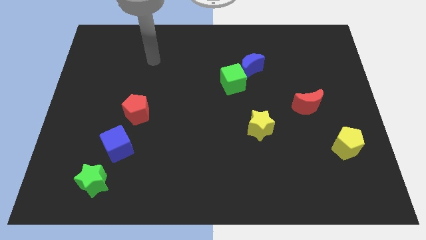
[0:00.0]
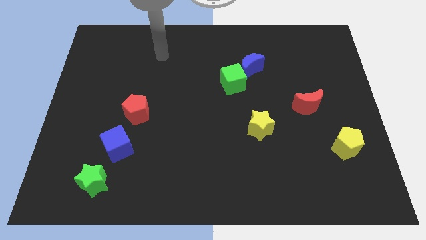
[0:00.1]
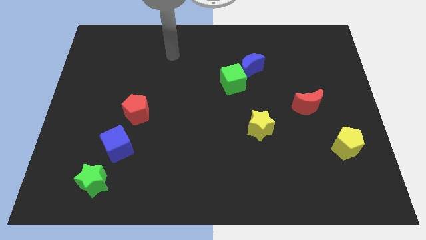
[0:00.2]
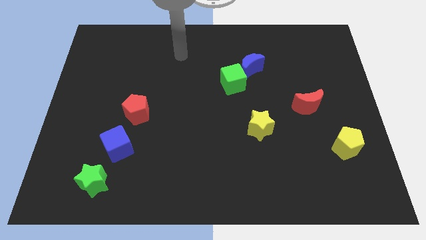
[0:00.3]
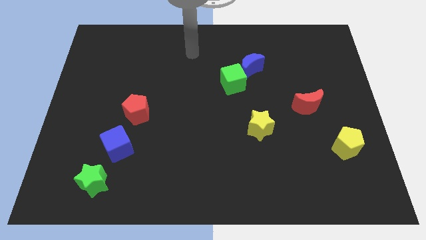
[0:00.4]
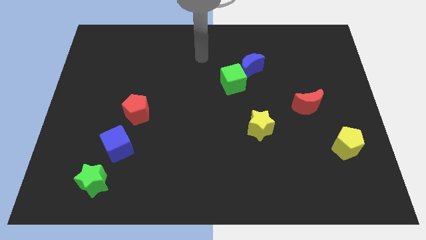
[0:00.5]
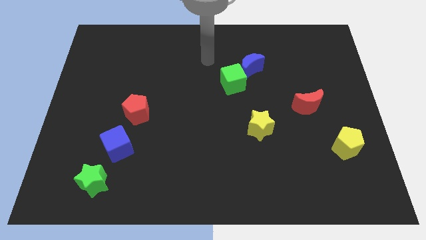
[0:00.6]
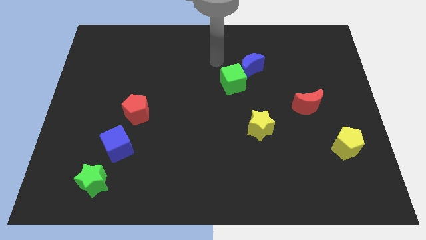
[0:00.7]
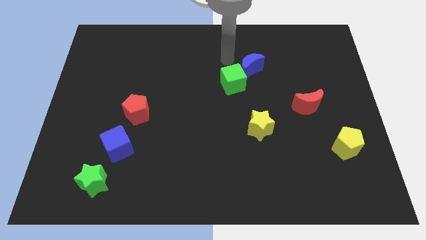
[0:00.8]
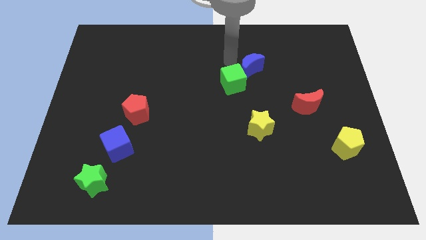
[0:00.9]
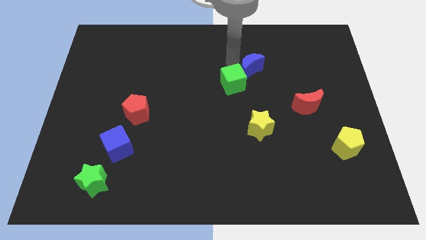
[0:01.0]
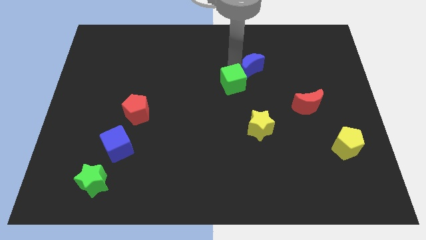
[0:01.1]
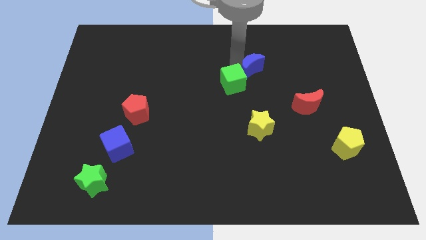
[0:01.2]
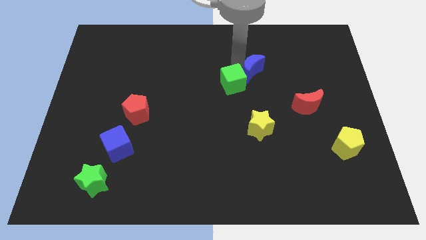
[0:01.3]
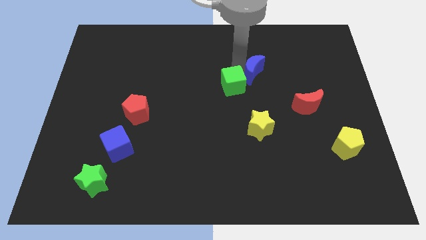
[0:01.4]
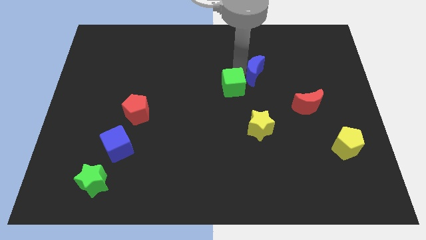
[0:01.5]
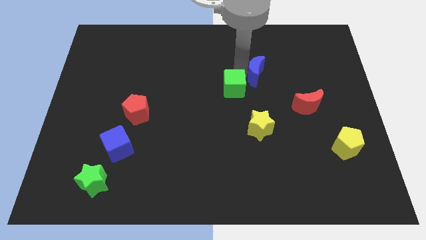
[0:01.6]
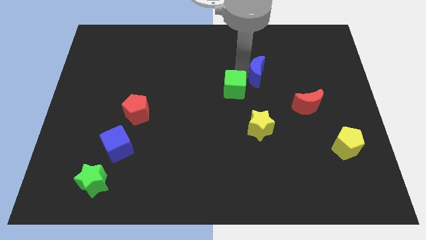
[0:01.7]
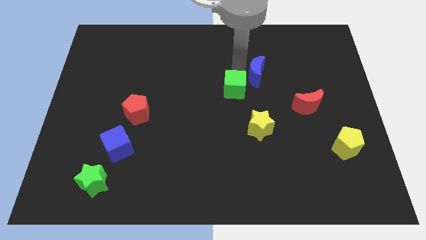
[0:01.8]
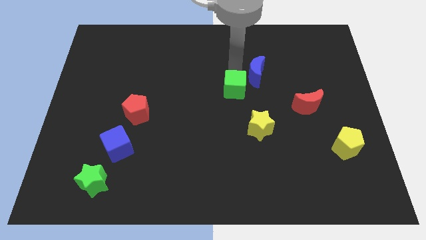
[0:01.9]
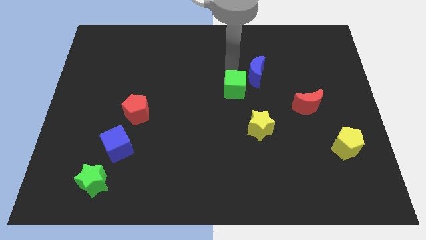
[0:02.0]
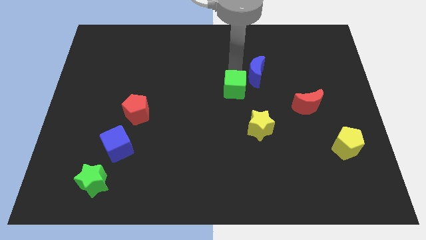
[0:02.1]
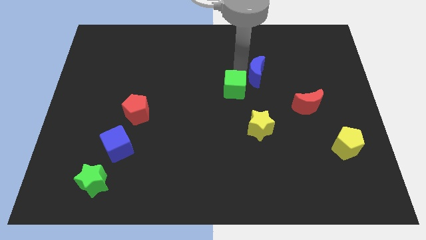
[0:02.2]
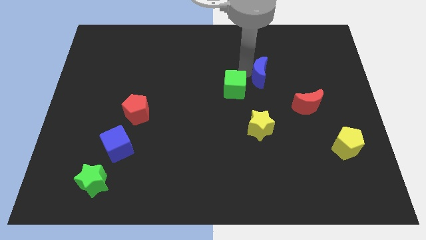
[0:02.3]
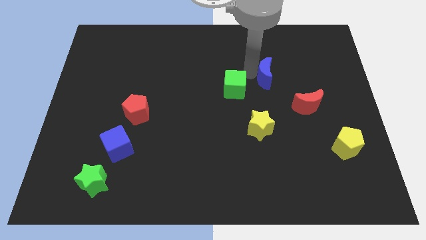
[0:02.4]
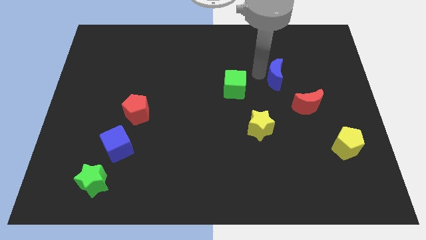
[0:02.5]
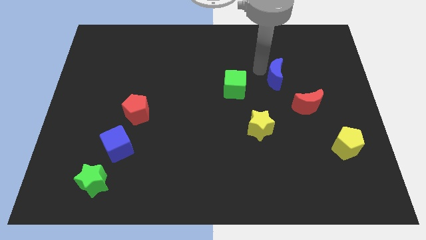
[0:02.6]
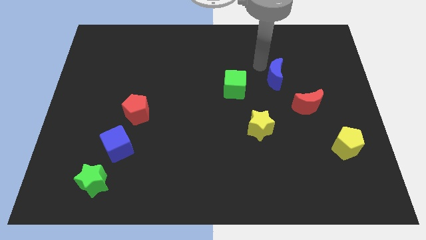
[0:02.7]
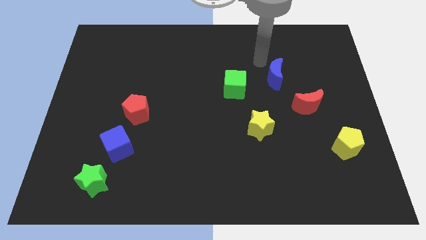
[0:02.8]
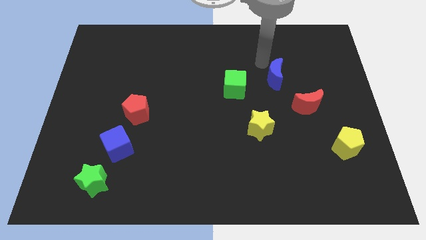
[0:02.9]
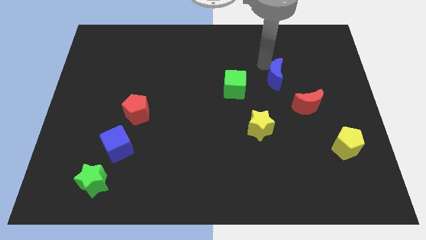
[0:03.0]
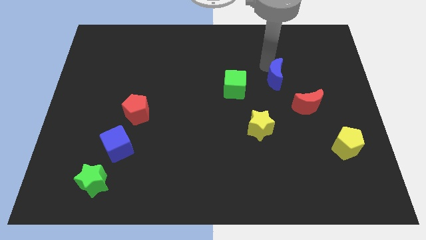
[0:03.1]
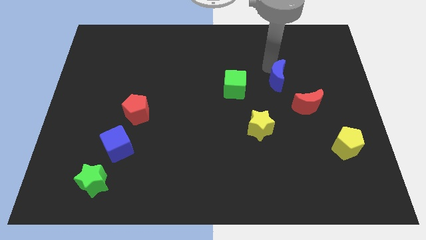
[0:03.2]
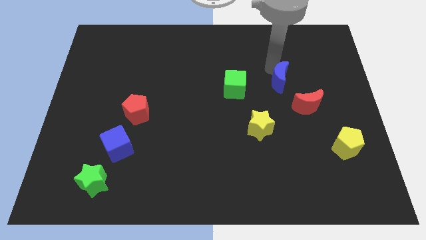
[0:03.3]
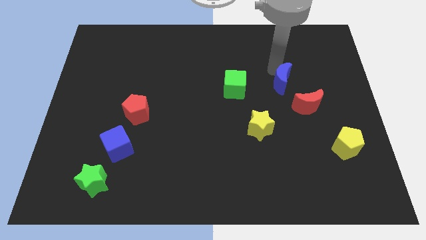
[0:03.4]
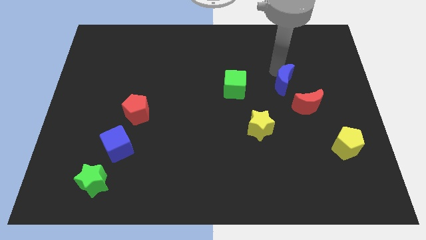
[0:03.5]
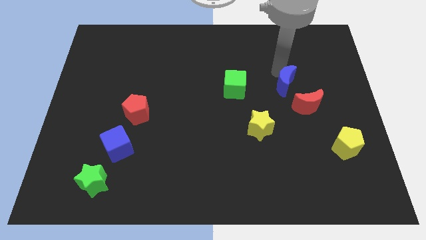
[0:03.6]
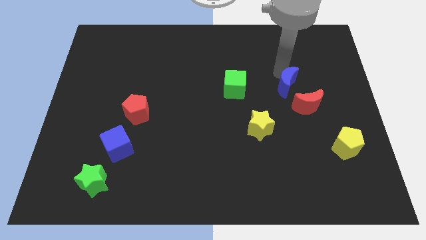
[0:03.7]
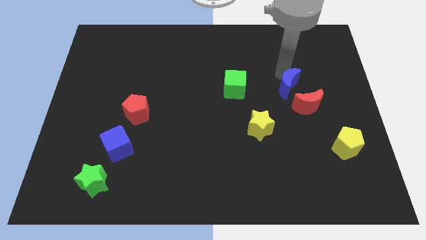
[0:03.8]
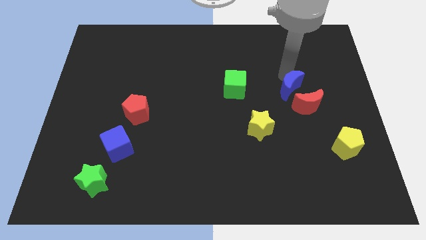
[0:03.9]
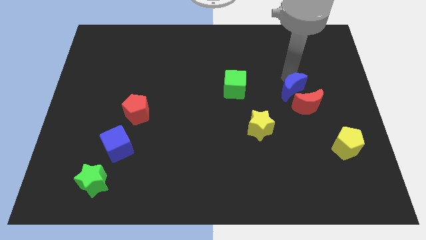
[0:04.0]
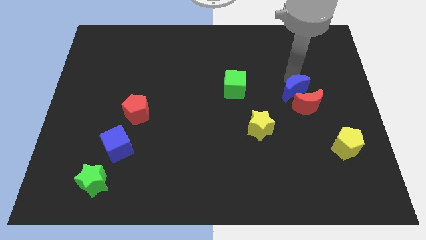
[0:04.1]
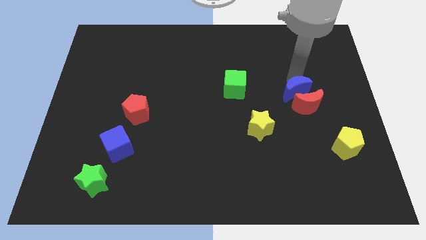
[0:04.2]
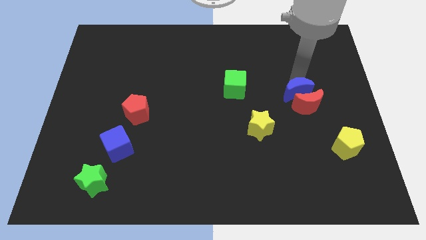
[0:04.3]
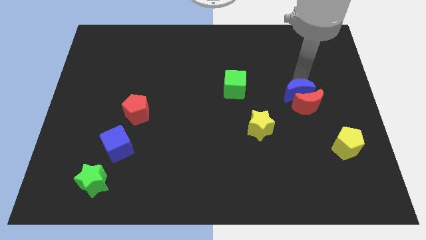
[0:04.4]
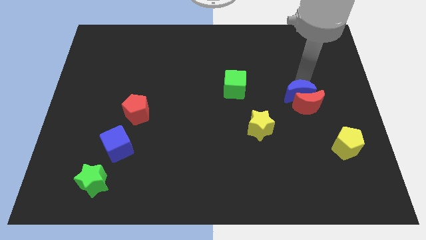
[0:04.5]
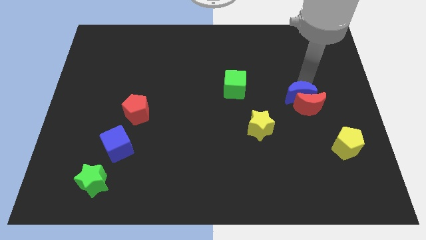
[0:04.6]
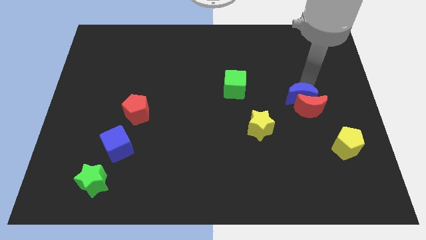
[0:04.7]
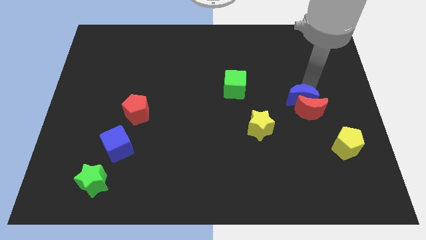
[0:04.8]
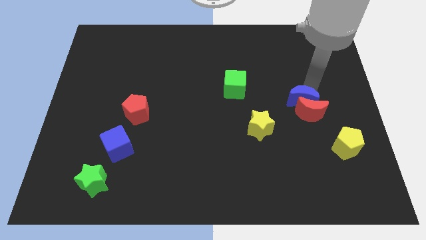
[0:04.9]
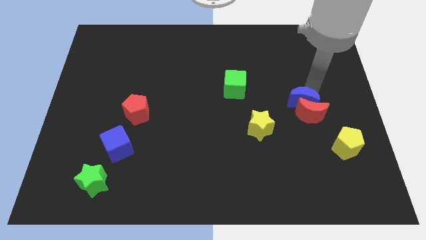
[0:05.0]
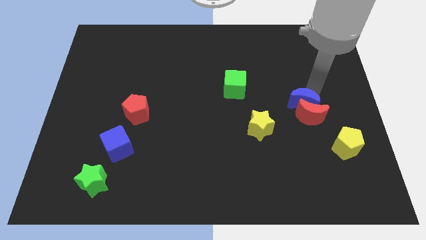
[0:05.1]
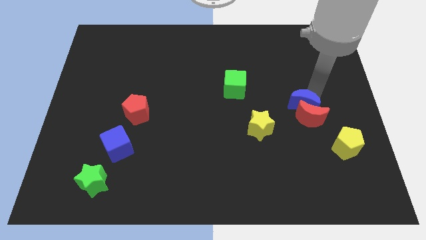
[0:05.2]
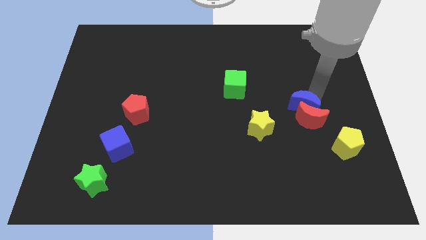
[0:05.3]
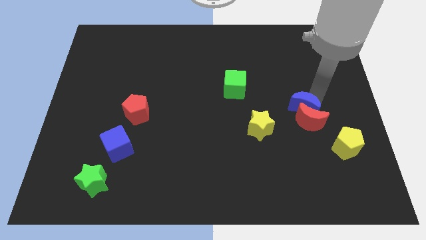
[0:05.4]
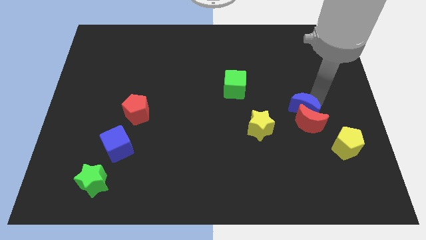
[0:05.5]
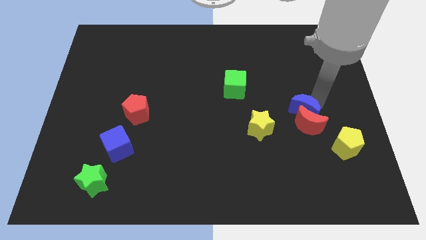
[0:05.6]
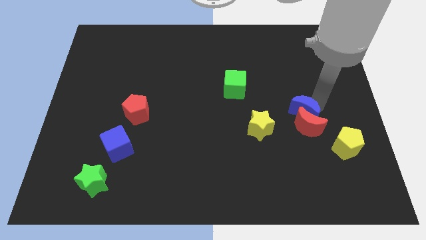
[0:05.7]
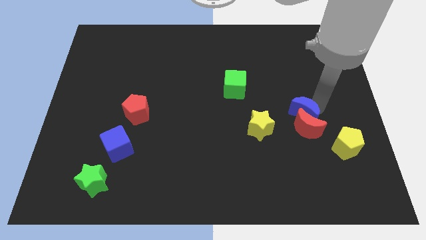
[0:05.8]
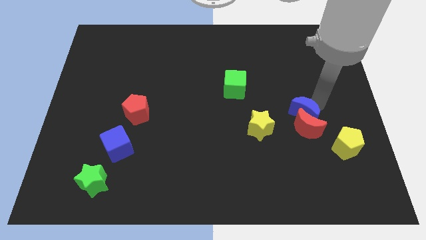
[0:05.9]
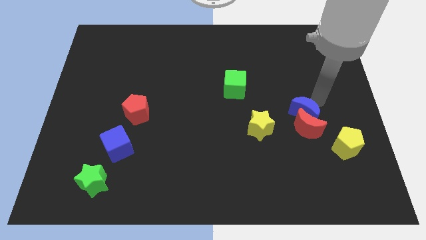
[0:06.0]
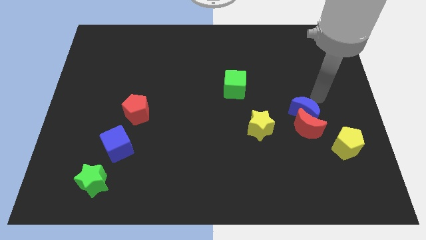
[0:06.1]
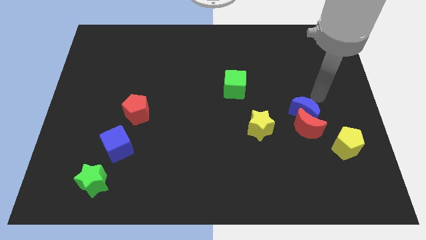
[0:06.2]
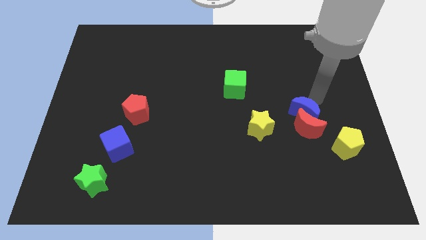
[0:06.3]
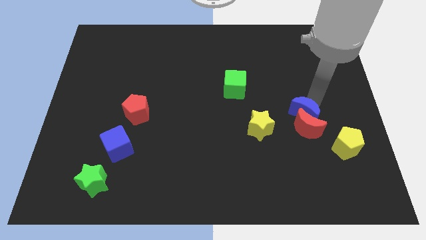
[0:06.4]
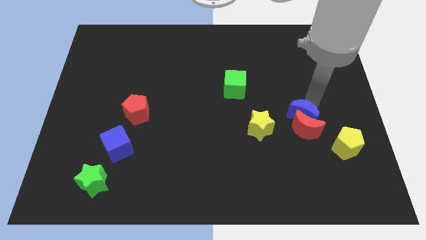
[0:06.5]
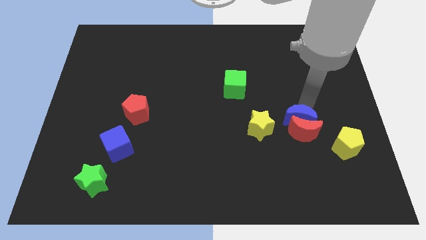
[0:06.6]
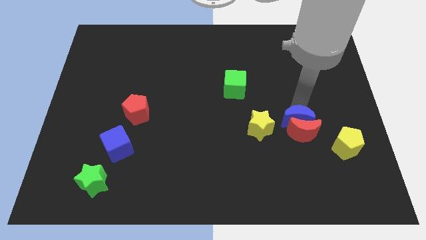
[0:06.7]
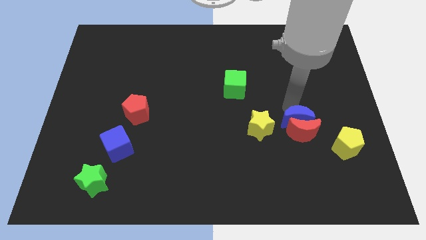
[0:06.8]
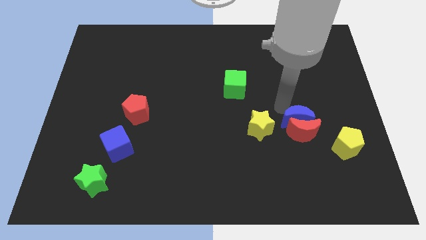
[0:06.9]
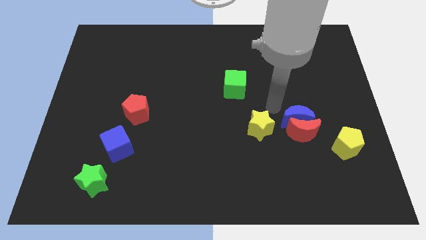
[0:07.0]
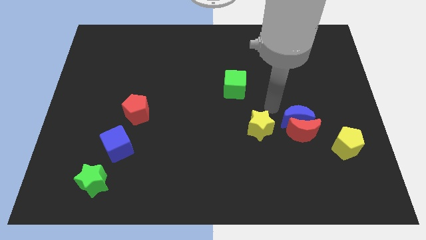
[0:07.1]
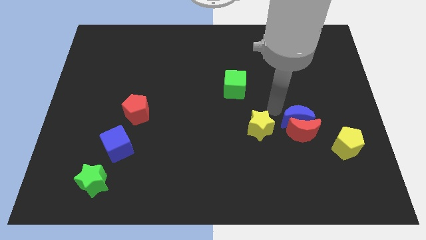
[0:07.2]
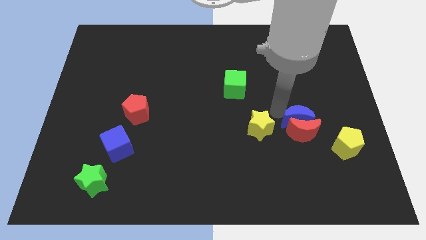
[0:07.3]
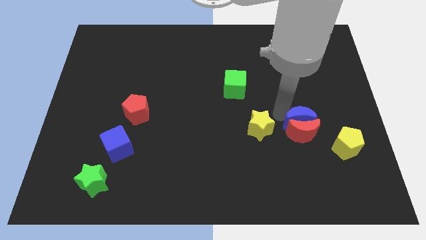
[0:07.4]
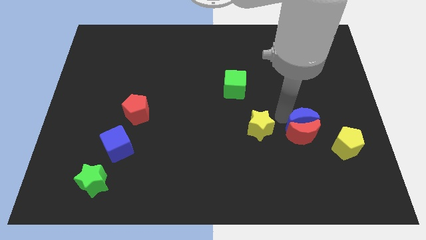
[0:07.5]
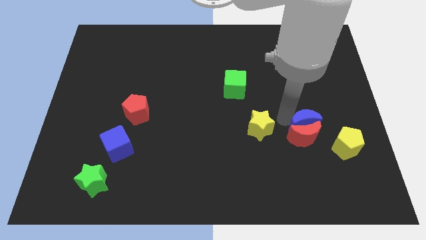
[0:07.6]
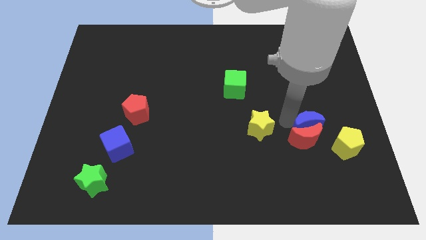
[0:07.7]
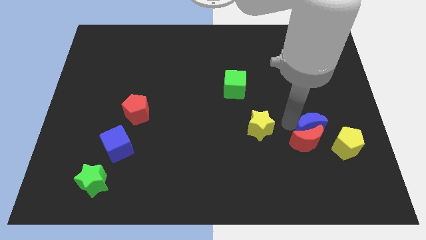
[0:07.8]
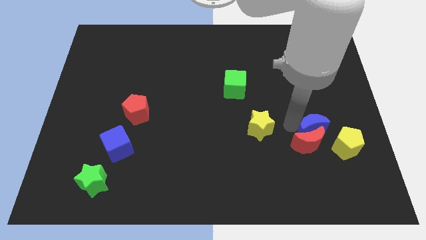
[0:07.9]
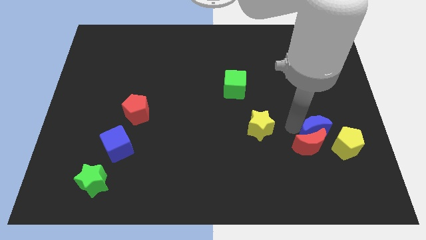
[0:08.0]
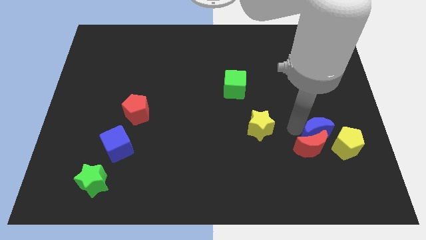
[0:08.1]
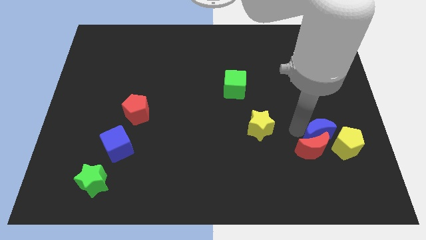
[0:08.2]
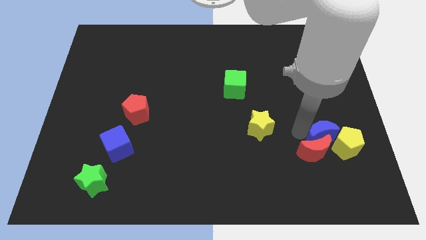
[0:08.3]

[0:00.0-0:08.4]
push the blue moon to the yellow pentagon
